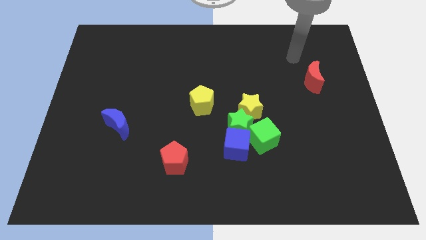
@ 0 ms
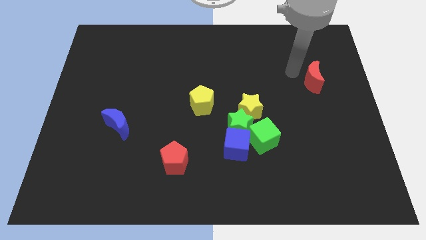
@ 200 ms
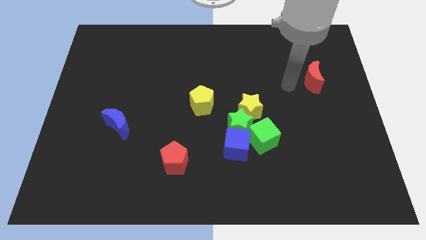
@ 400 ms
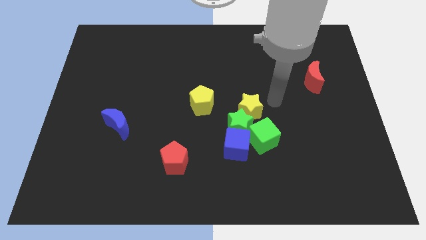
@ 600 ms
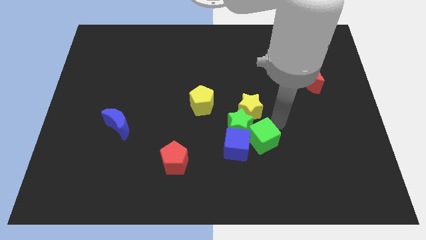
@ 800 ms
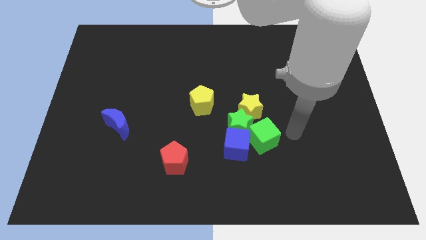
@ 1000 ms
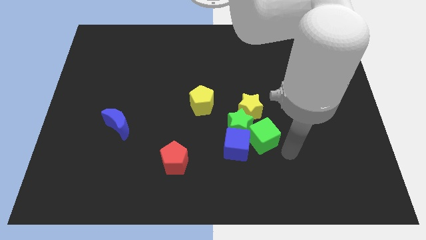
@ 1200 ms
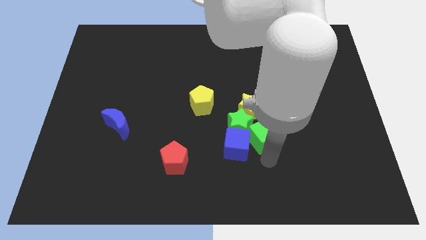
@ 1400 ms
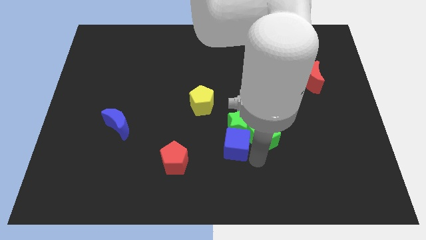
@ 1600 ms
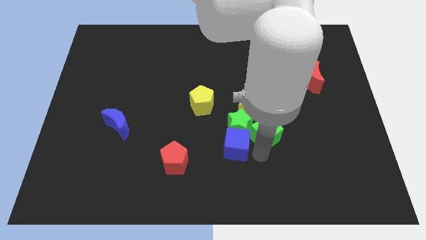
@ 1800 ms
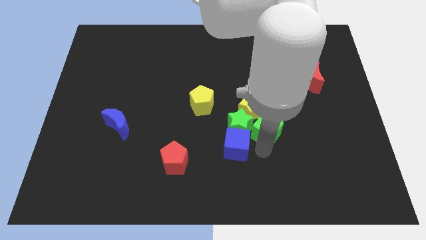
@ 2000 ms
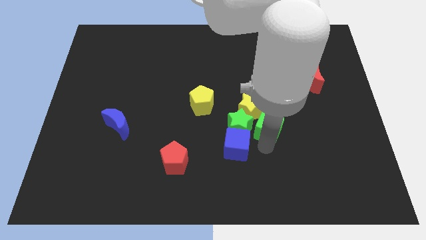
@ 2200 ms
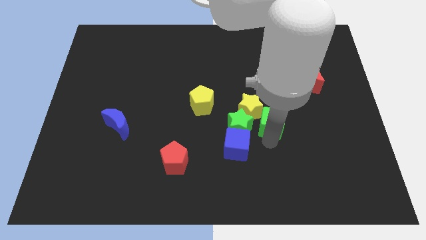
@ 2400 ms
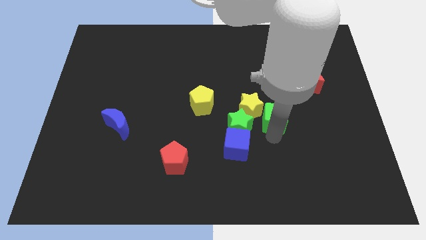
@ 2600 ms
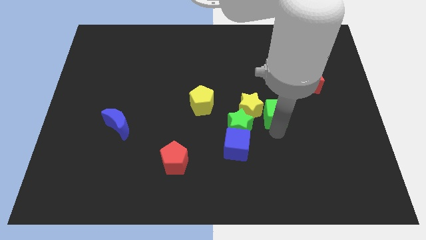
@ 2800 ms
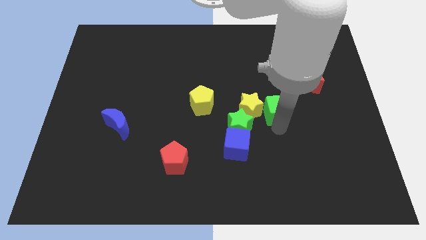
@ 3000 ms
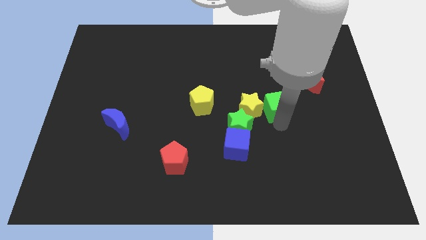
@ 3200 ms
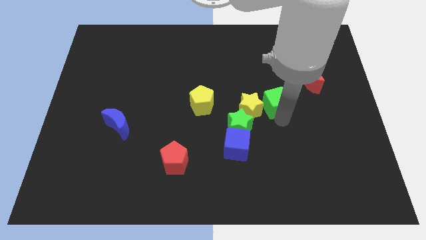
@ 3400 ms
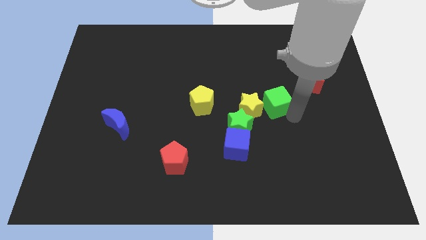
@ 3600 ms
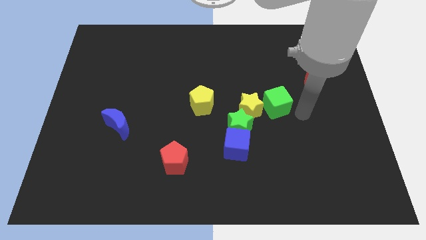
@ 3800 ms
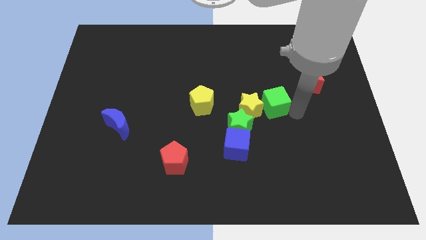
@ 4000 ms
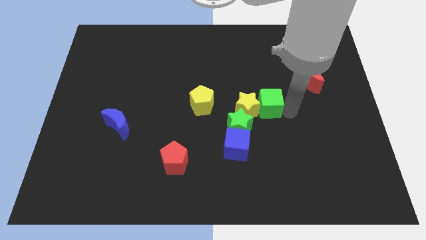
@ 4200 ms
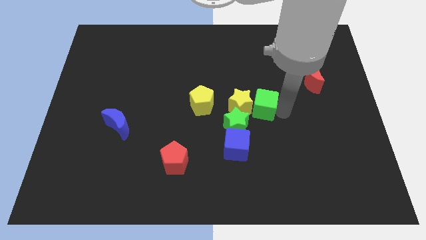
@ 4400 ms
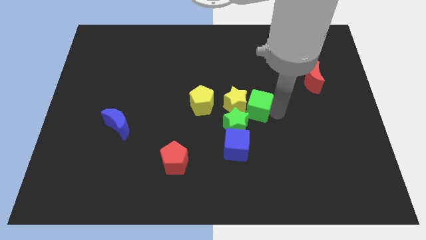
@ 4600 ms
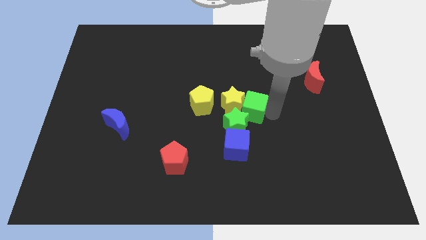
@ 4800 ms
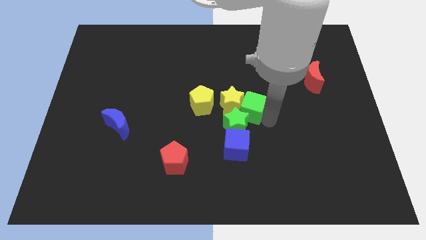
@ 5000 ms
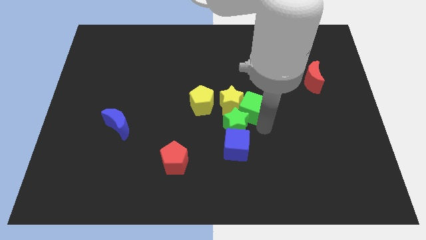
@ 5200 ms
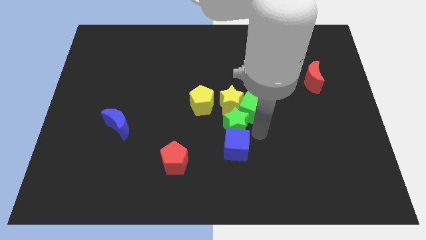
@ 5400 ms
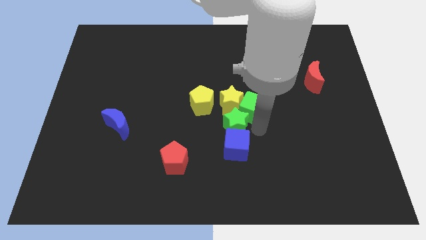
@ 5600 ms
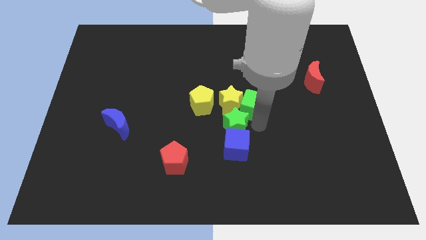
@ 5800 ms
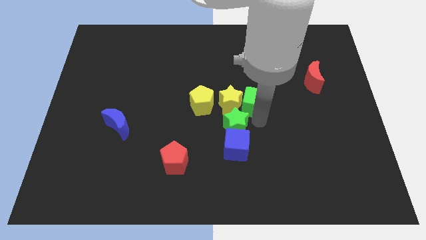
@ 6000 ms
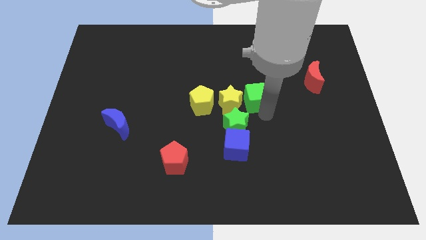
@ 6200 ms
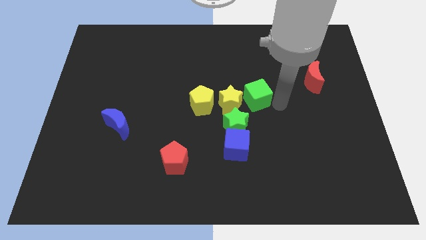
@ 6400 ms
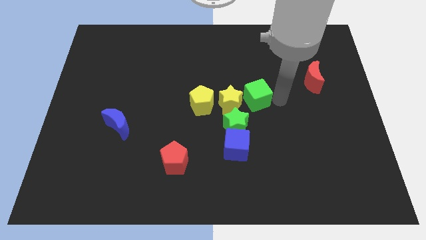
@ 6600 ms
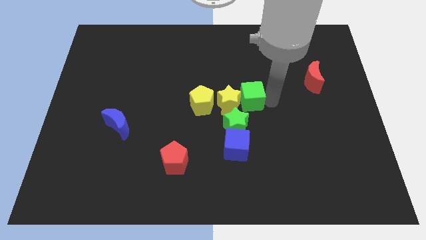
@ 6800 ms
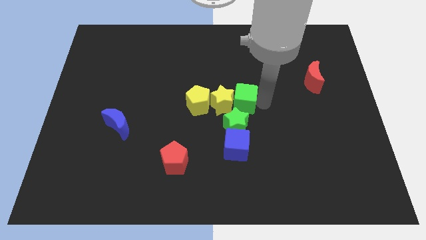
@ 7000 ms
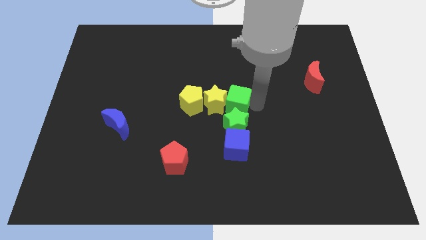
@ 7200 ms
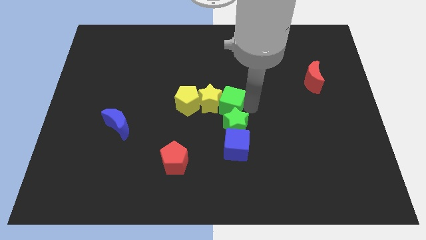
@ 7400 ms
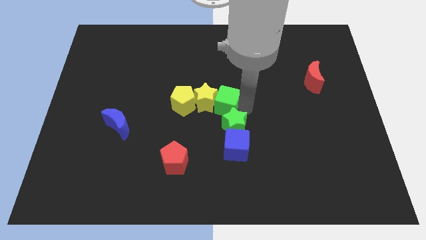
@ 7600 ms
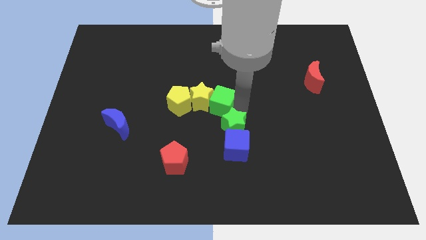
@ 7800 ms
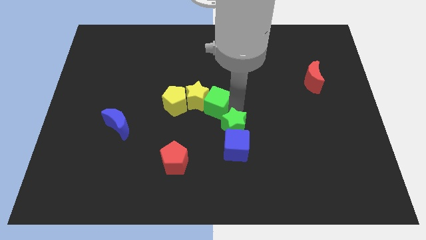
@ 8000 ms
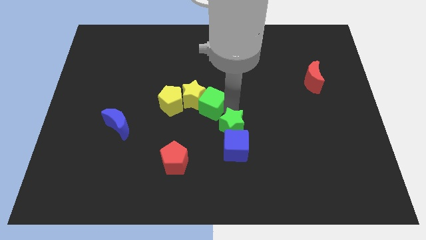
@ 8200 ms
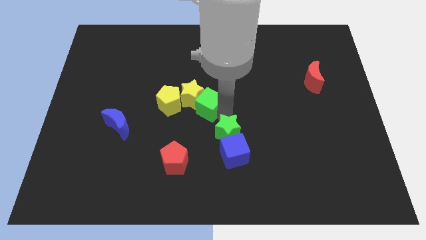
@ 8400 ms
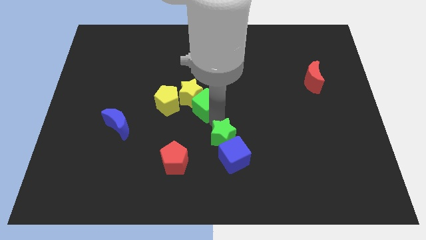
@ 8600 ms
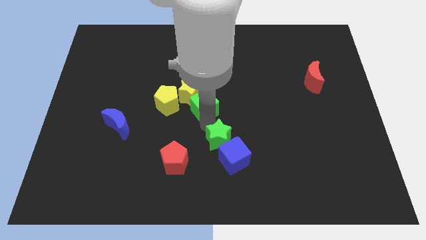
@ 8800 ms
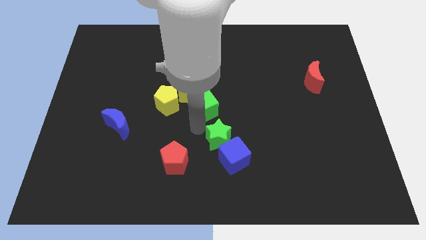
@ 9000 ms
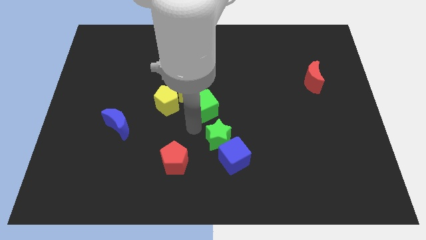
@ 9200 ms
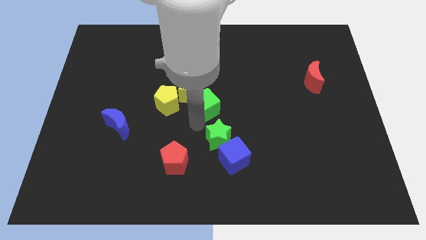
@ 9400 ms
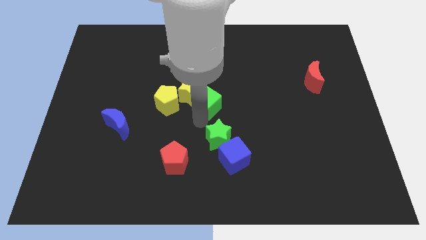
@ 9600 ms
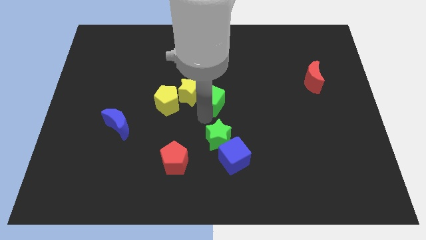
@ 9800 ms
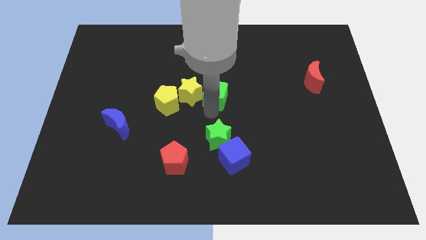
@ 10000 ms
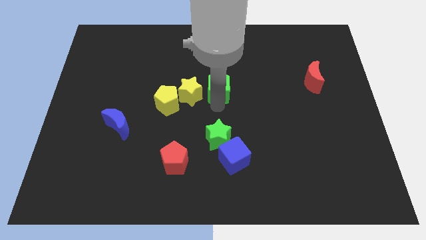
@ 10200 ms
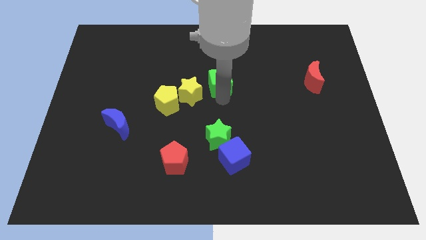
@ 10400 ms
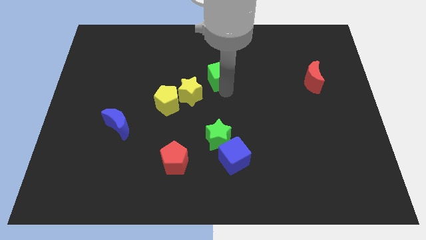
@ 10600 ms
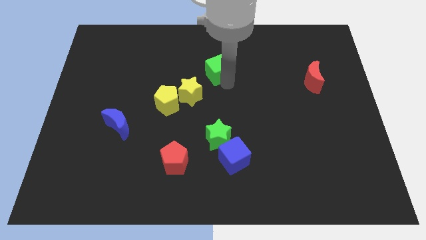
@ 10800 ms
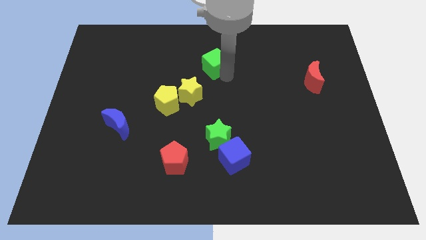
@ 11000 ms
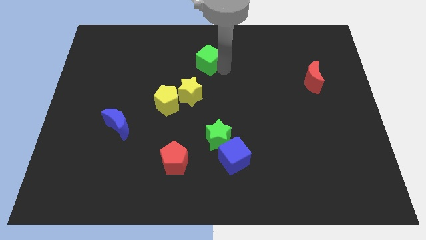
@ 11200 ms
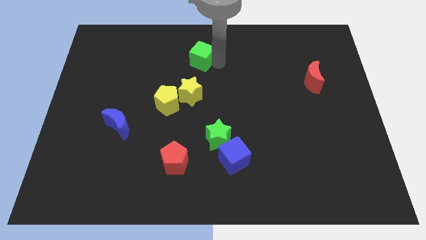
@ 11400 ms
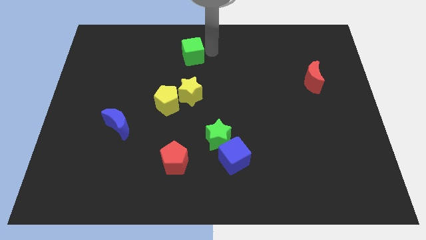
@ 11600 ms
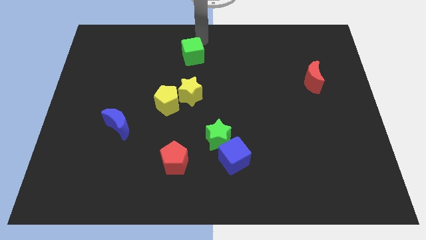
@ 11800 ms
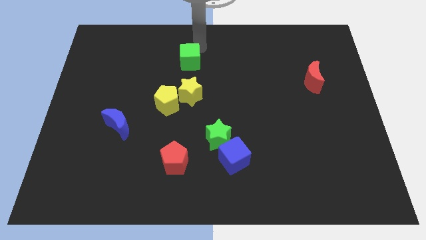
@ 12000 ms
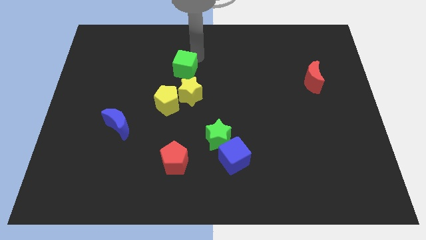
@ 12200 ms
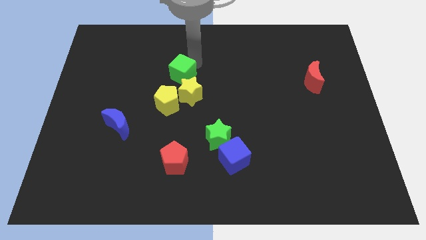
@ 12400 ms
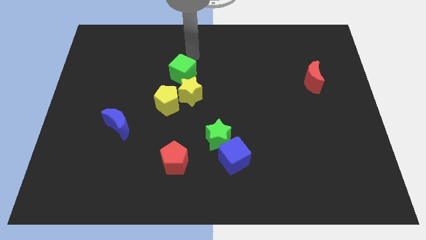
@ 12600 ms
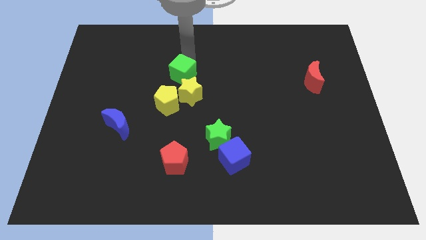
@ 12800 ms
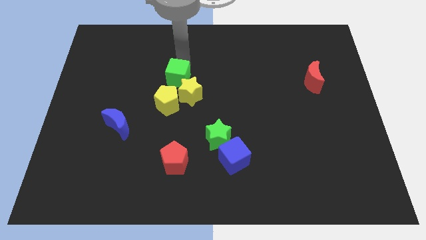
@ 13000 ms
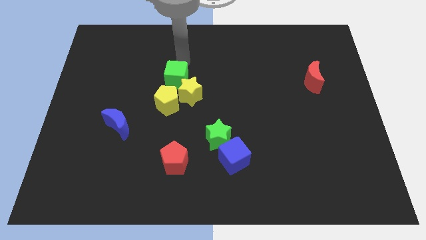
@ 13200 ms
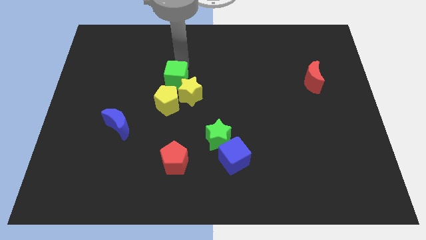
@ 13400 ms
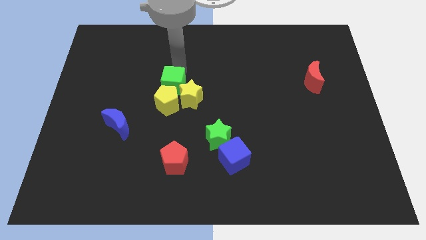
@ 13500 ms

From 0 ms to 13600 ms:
put the green cube next to the yellow pentagon

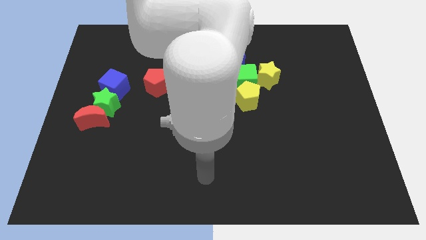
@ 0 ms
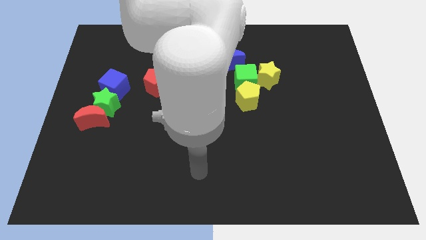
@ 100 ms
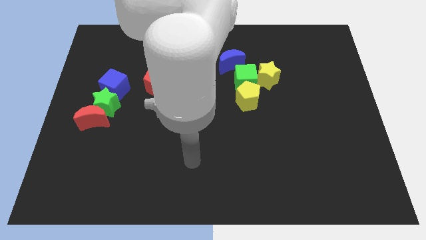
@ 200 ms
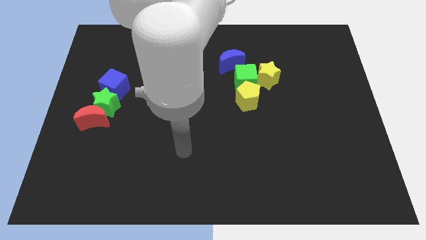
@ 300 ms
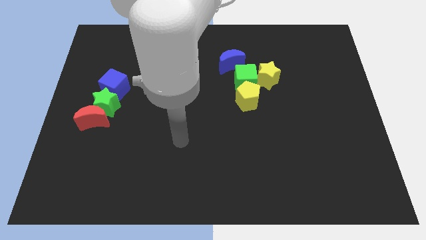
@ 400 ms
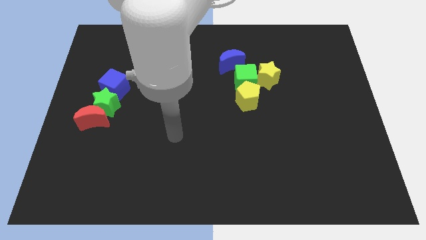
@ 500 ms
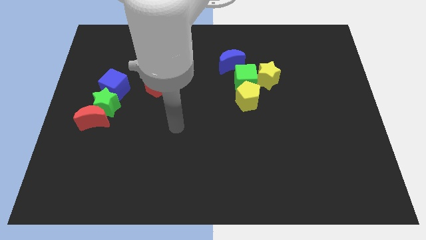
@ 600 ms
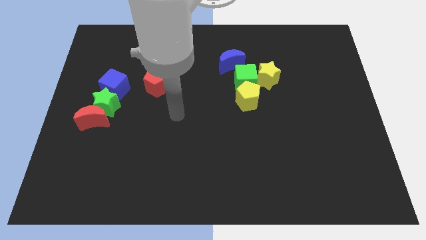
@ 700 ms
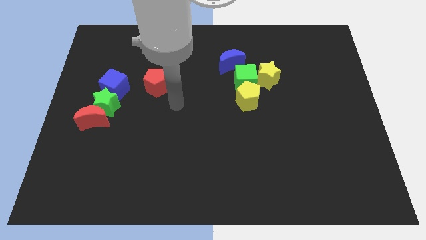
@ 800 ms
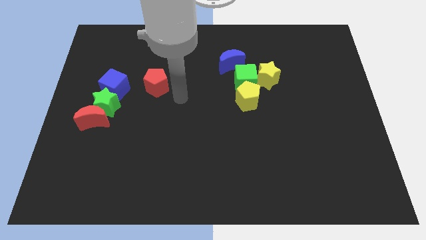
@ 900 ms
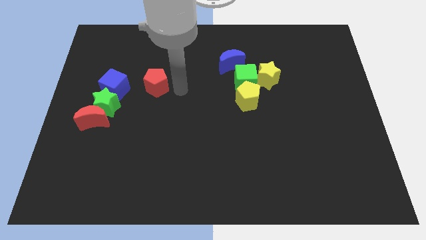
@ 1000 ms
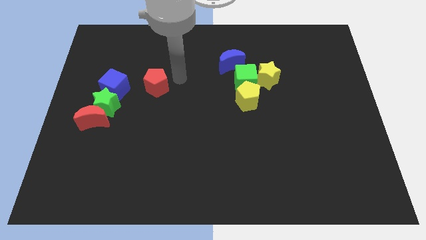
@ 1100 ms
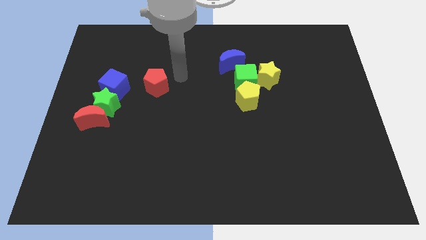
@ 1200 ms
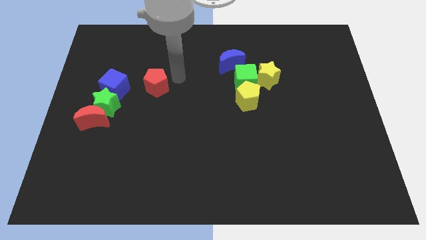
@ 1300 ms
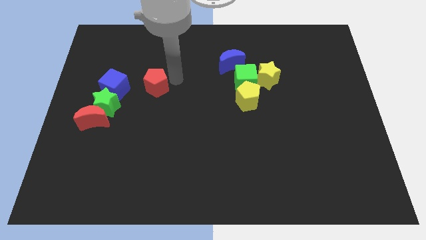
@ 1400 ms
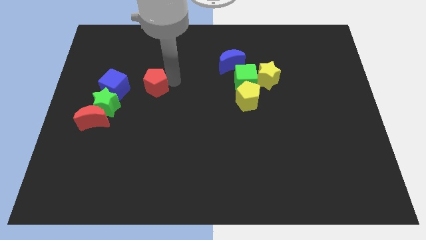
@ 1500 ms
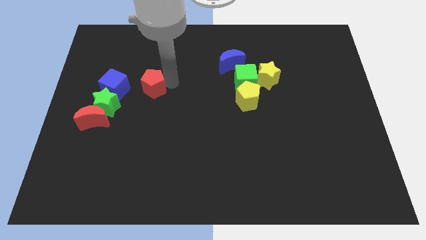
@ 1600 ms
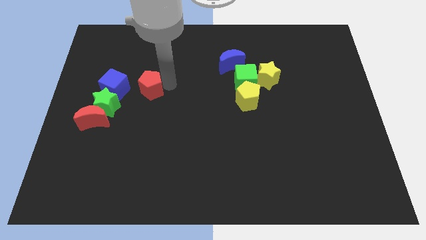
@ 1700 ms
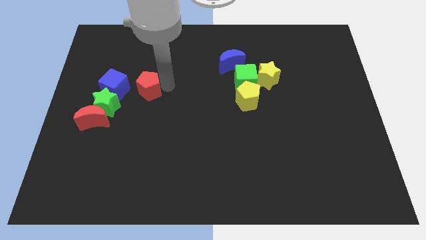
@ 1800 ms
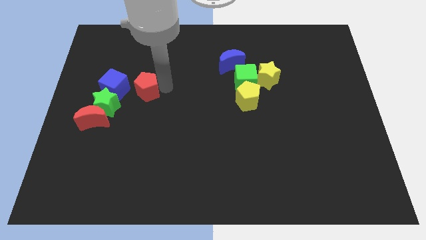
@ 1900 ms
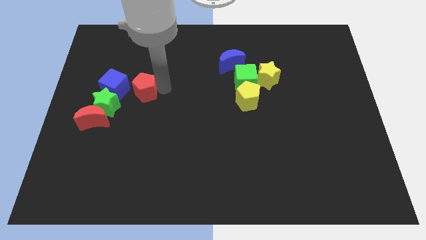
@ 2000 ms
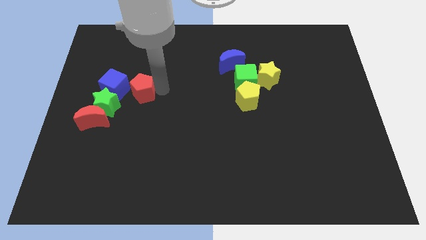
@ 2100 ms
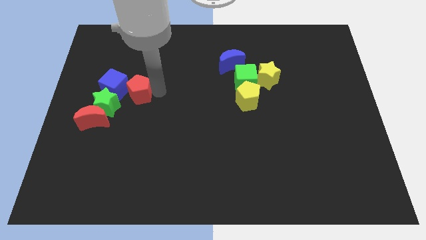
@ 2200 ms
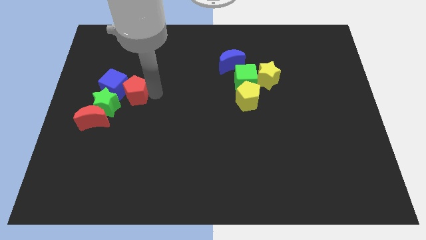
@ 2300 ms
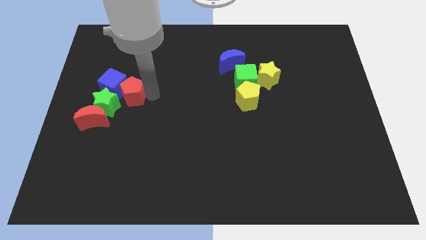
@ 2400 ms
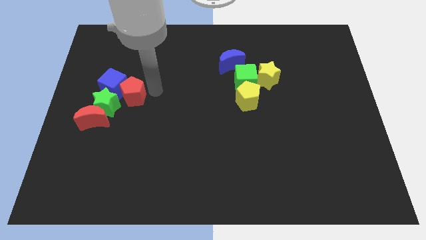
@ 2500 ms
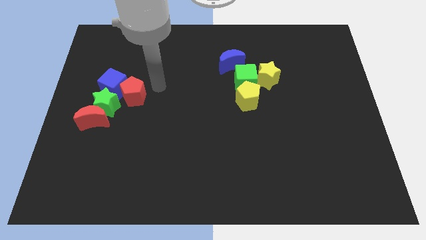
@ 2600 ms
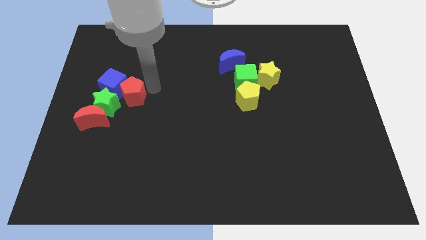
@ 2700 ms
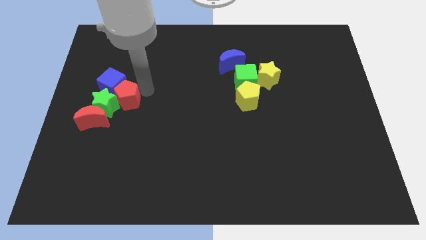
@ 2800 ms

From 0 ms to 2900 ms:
put the red pentagon close to the green star
